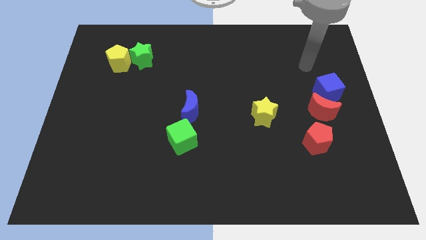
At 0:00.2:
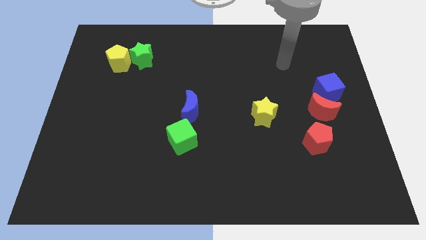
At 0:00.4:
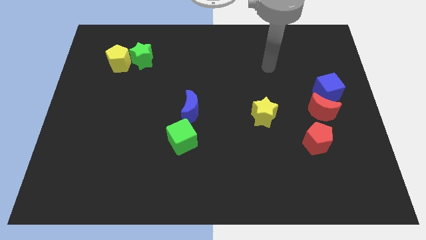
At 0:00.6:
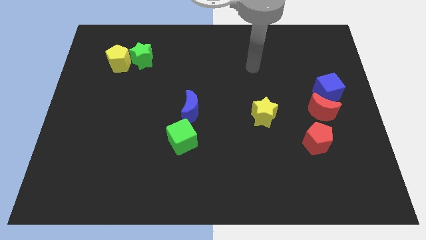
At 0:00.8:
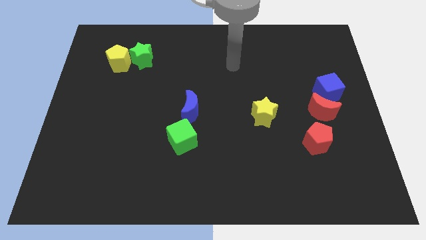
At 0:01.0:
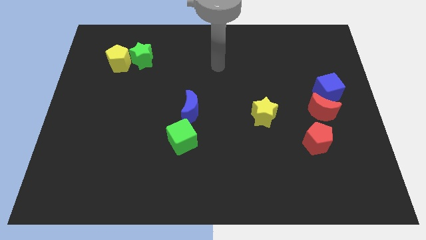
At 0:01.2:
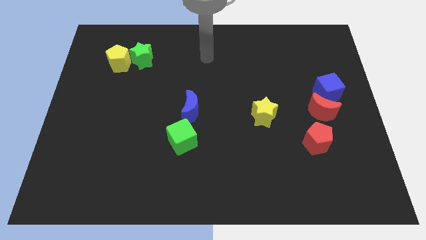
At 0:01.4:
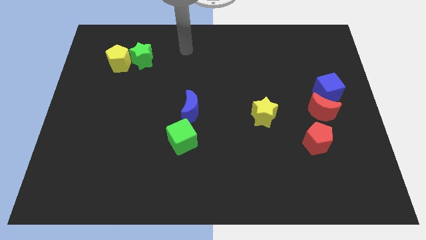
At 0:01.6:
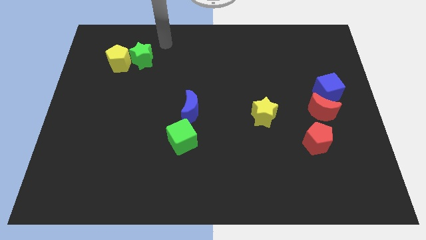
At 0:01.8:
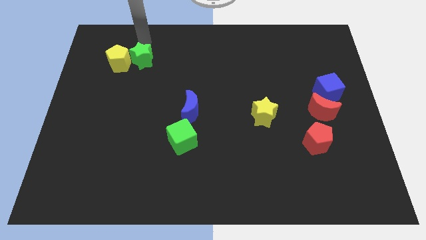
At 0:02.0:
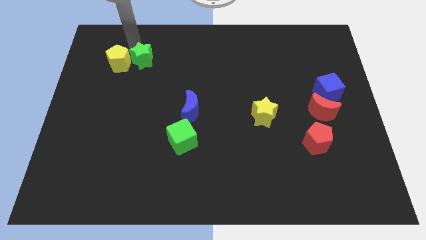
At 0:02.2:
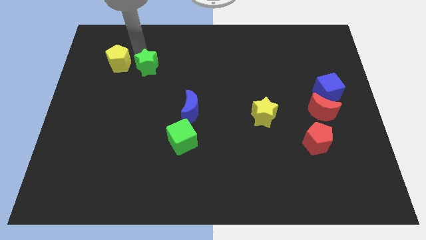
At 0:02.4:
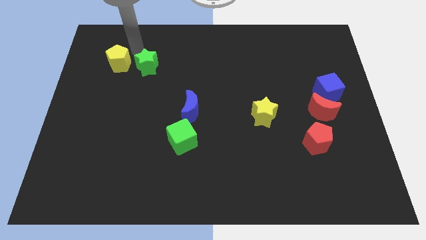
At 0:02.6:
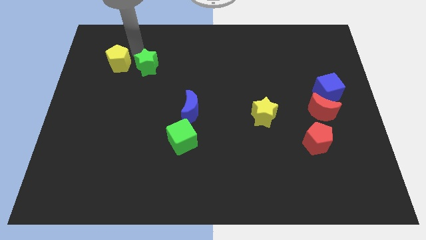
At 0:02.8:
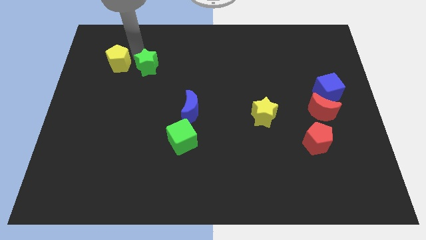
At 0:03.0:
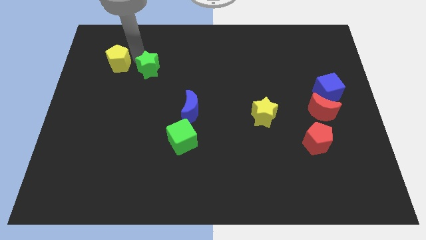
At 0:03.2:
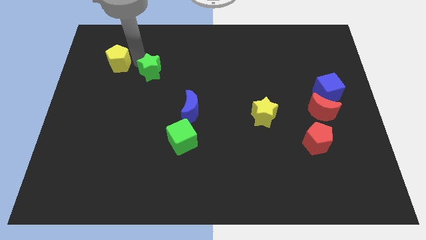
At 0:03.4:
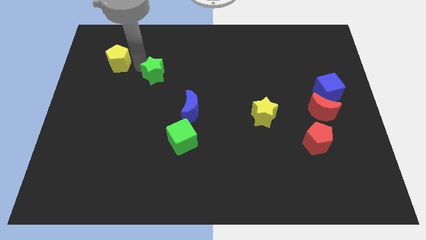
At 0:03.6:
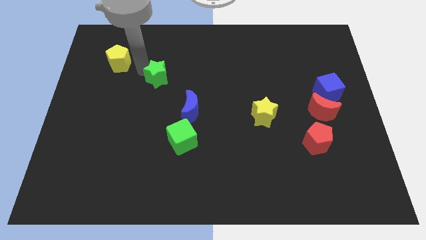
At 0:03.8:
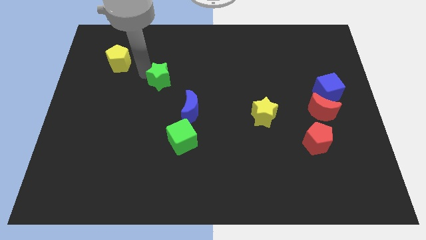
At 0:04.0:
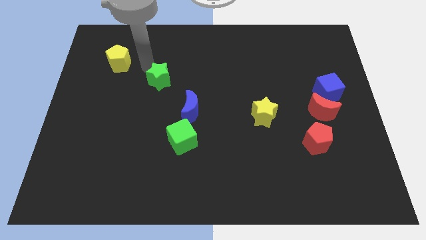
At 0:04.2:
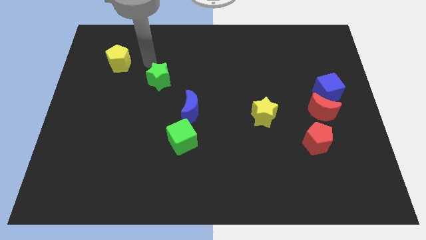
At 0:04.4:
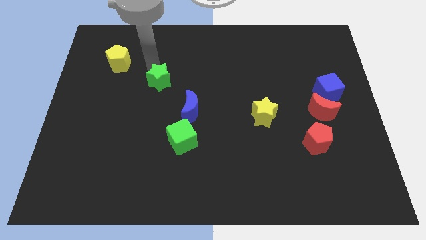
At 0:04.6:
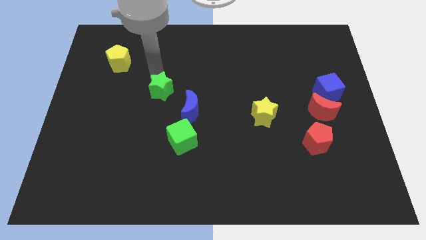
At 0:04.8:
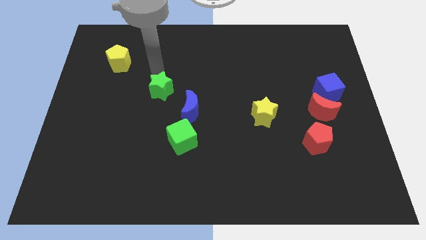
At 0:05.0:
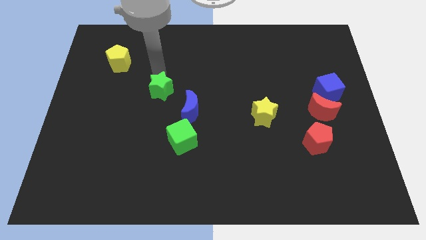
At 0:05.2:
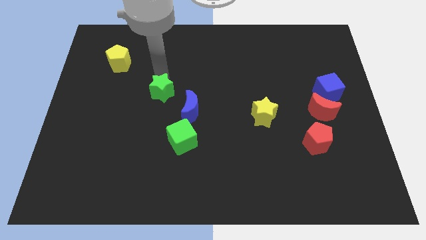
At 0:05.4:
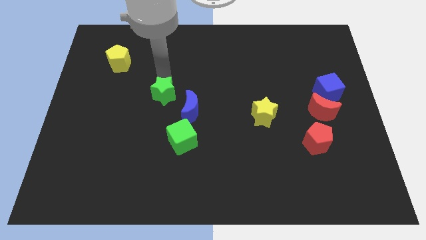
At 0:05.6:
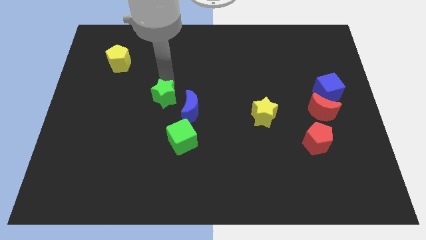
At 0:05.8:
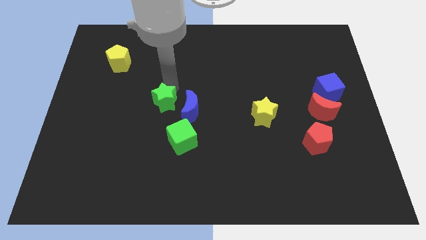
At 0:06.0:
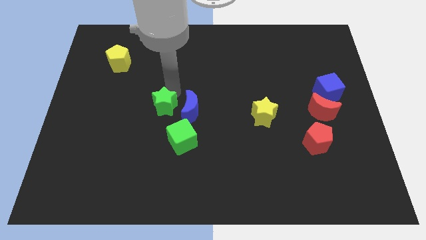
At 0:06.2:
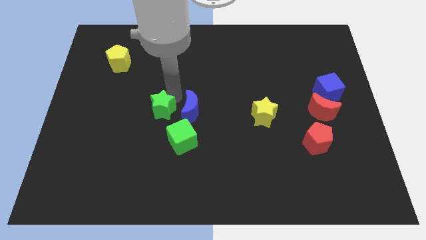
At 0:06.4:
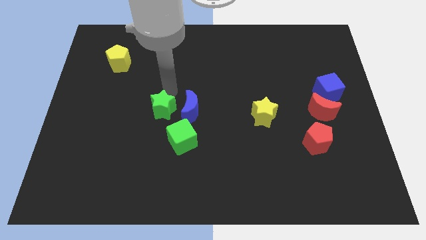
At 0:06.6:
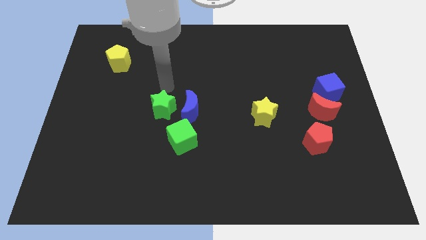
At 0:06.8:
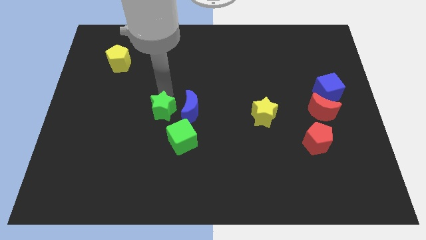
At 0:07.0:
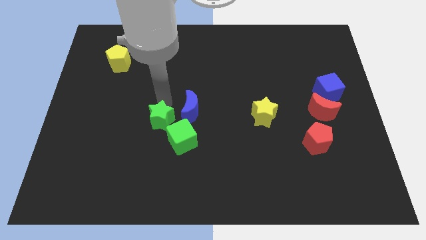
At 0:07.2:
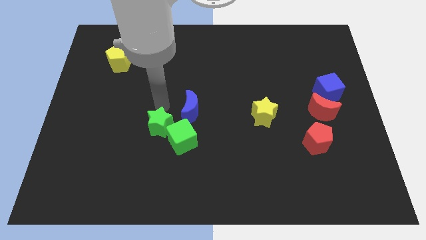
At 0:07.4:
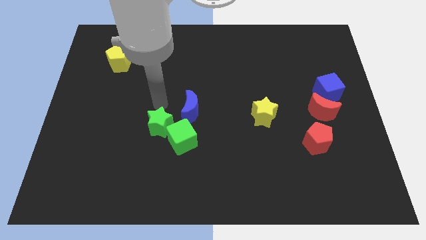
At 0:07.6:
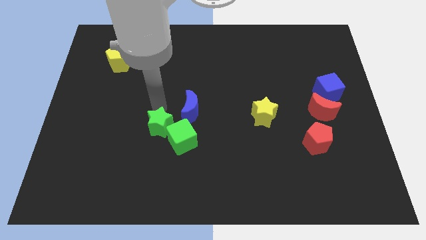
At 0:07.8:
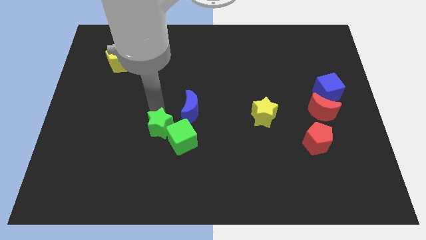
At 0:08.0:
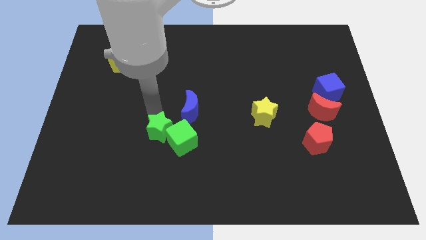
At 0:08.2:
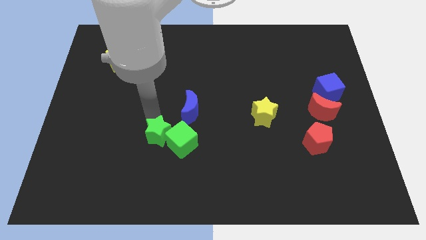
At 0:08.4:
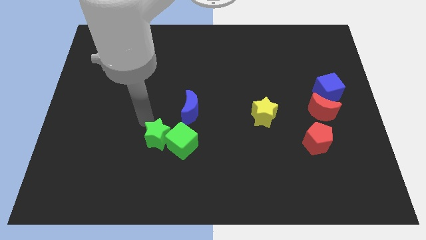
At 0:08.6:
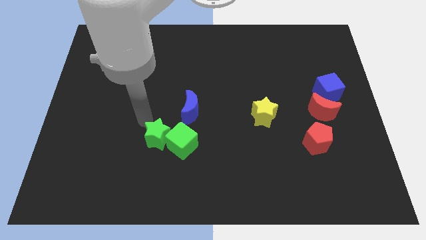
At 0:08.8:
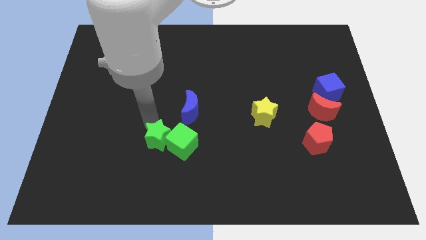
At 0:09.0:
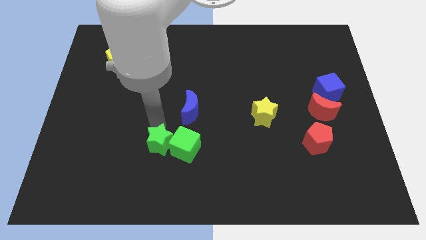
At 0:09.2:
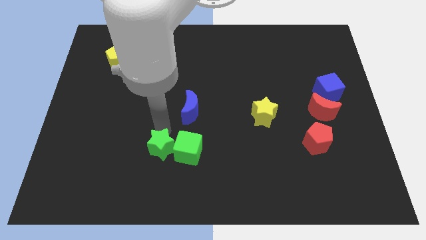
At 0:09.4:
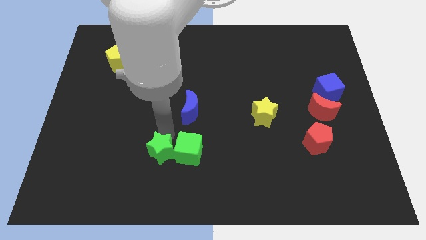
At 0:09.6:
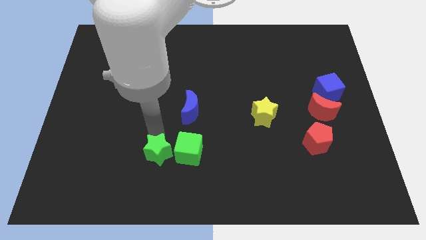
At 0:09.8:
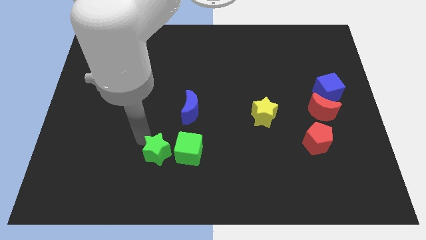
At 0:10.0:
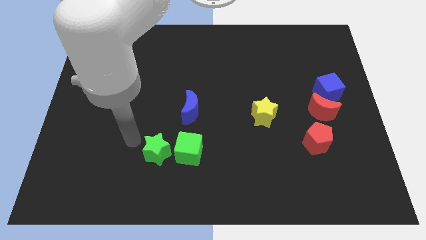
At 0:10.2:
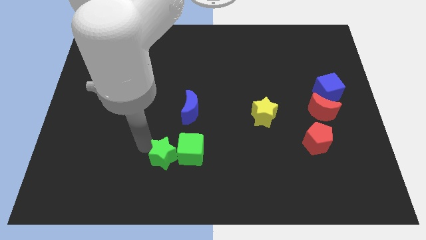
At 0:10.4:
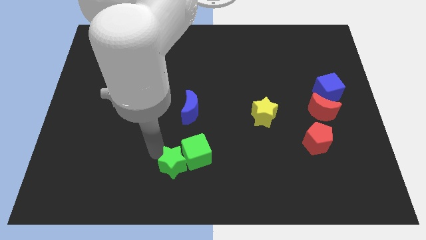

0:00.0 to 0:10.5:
move the green star to the bottom side

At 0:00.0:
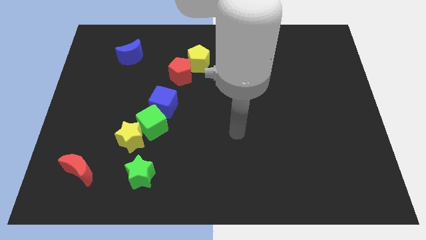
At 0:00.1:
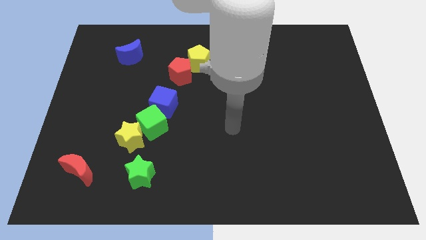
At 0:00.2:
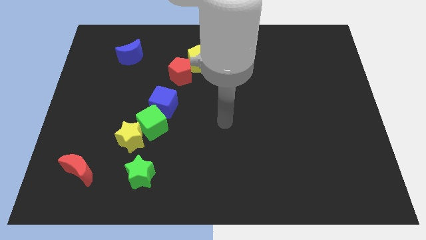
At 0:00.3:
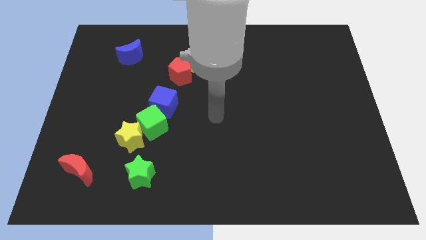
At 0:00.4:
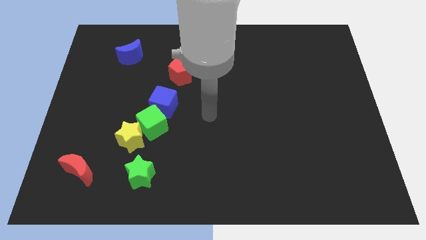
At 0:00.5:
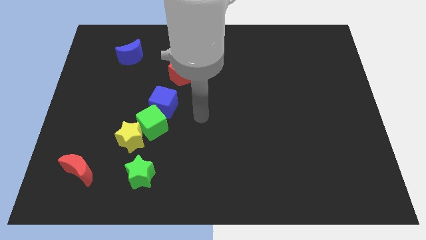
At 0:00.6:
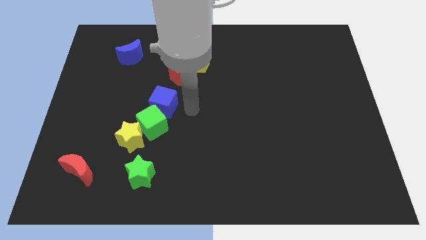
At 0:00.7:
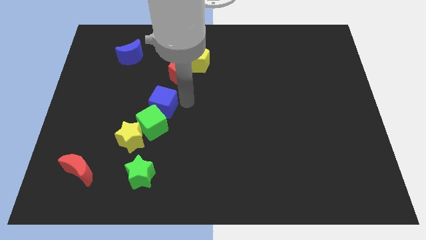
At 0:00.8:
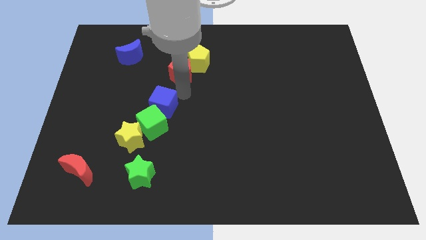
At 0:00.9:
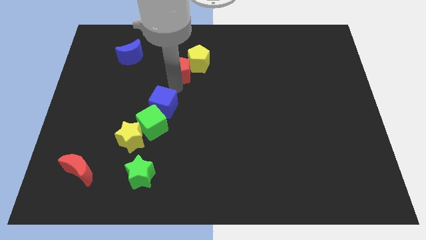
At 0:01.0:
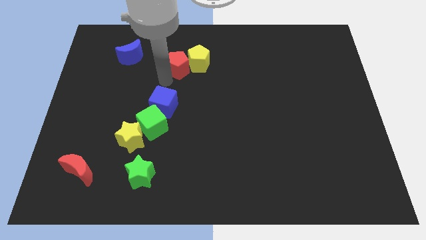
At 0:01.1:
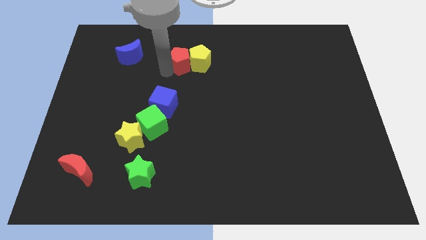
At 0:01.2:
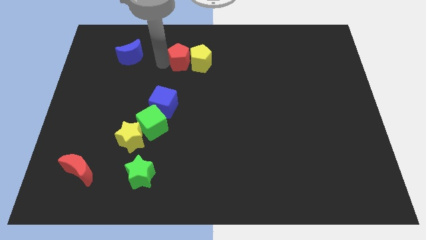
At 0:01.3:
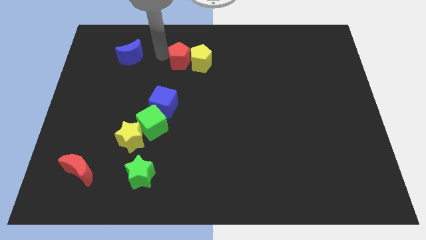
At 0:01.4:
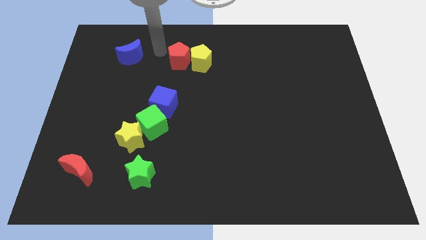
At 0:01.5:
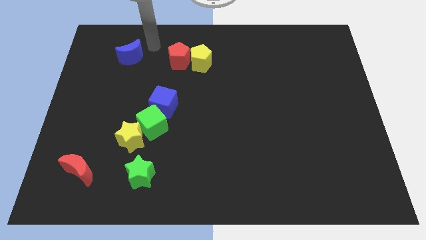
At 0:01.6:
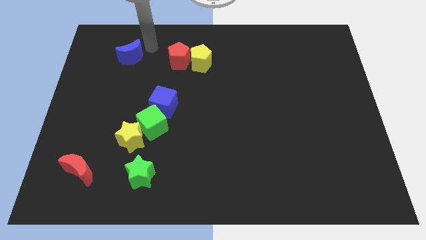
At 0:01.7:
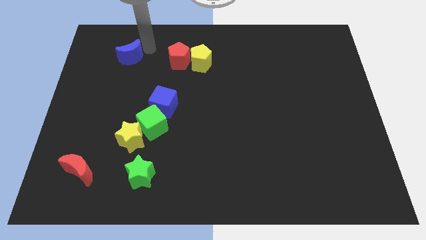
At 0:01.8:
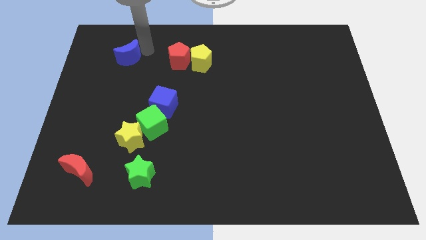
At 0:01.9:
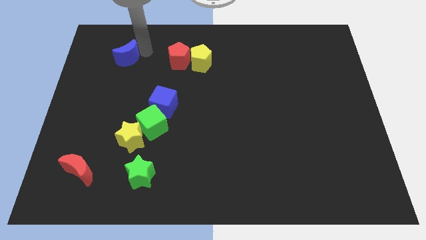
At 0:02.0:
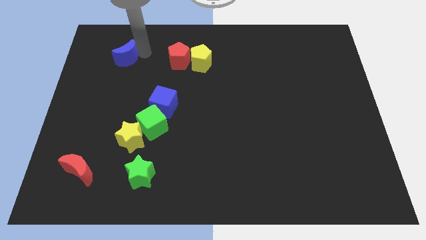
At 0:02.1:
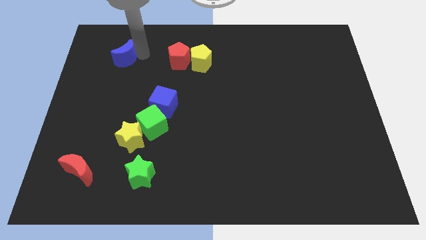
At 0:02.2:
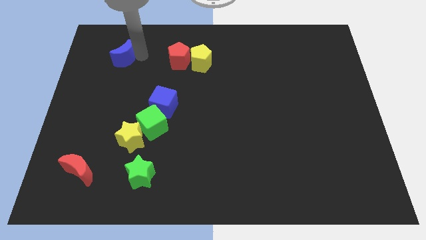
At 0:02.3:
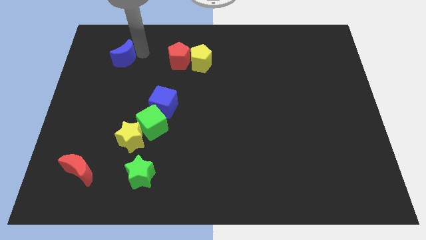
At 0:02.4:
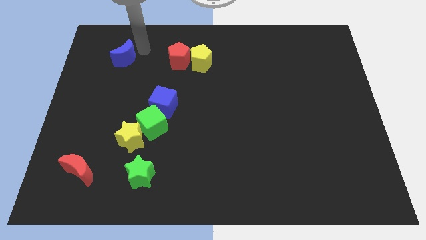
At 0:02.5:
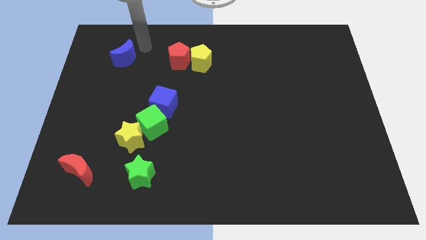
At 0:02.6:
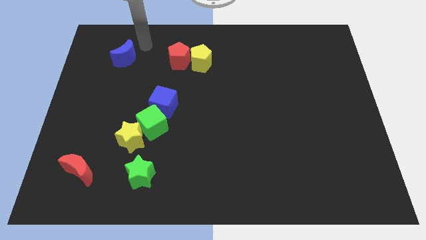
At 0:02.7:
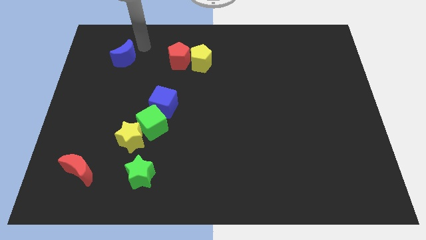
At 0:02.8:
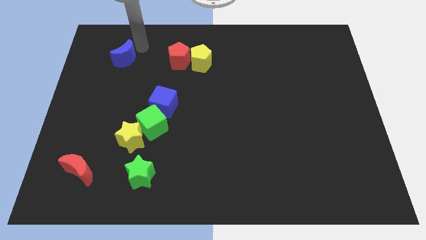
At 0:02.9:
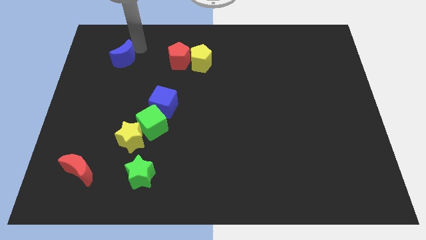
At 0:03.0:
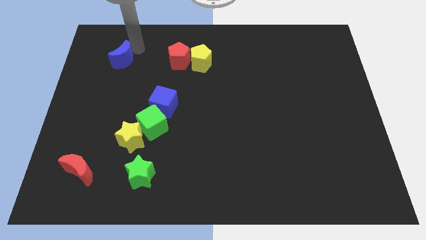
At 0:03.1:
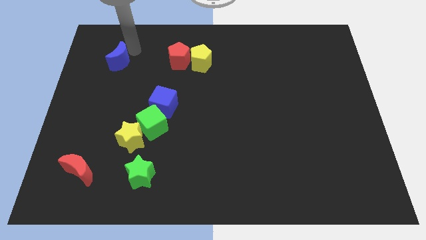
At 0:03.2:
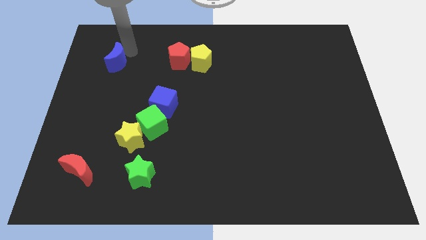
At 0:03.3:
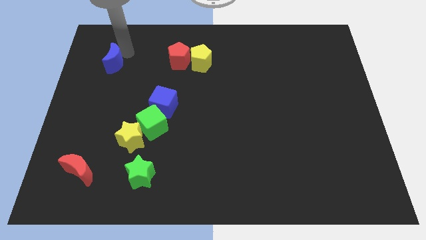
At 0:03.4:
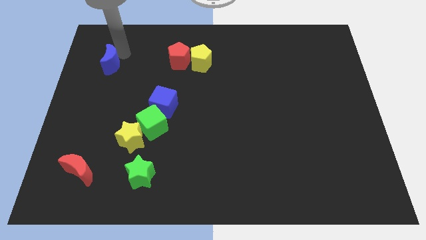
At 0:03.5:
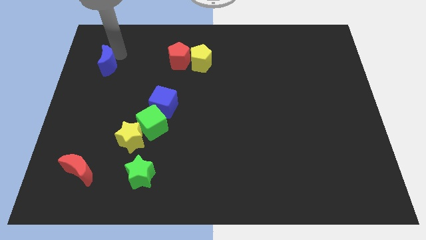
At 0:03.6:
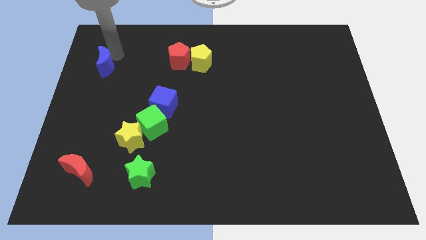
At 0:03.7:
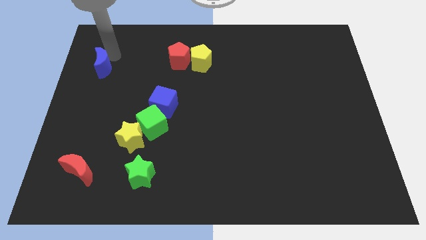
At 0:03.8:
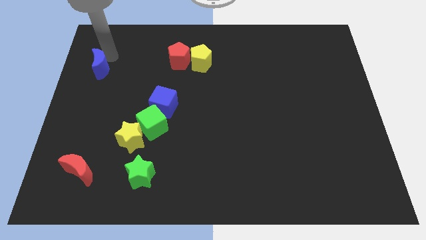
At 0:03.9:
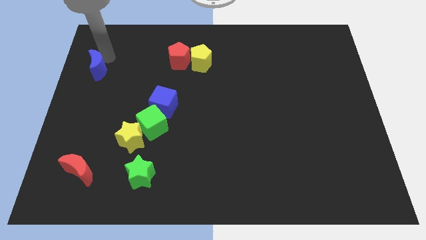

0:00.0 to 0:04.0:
push the blue moon to the center left
